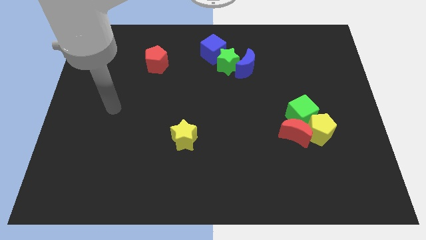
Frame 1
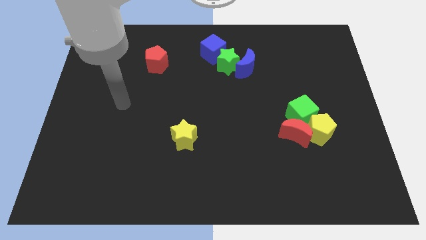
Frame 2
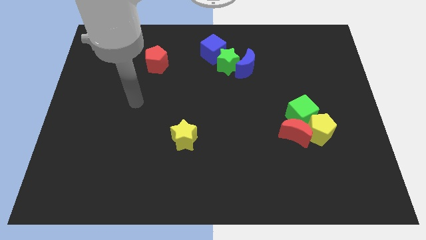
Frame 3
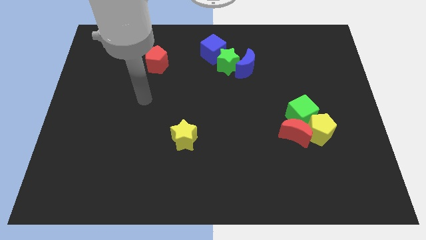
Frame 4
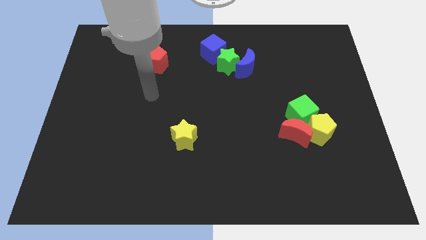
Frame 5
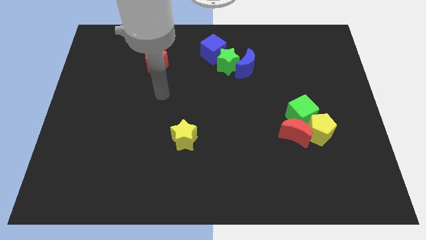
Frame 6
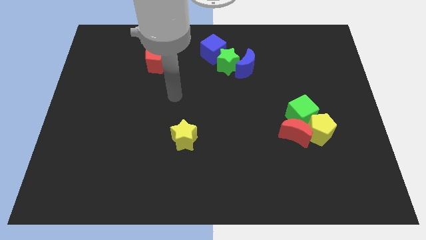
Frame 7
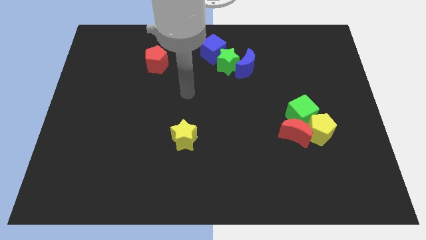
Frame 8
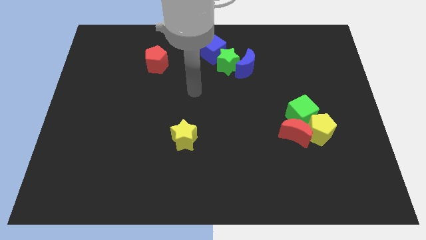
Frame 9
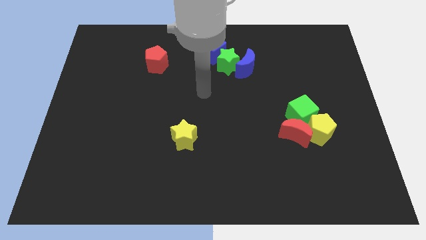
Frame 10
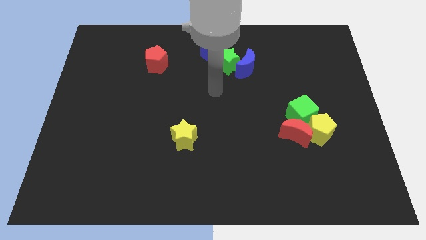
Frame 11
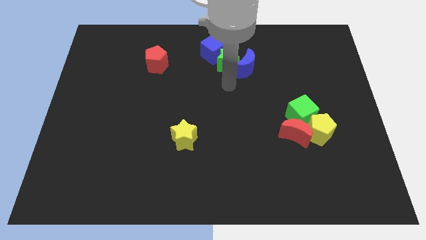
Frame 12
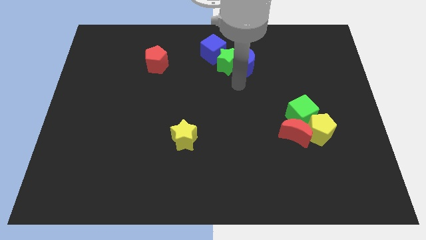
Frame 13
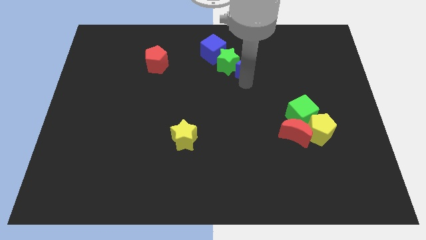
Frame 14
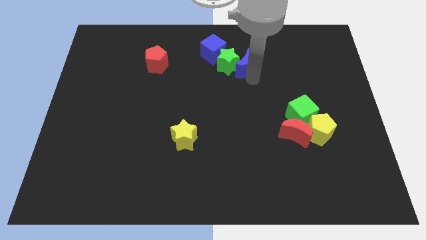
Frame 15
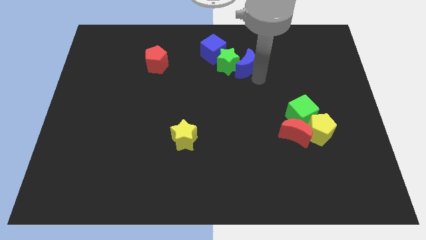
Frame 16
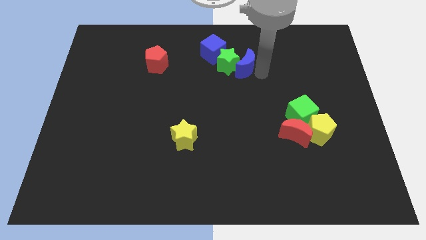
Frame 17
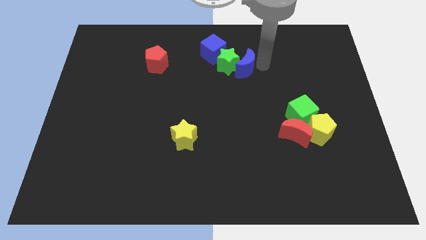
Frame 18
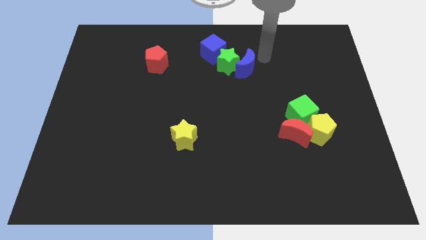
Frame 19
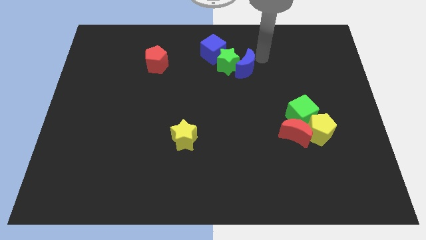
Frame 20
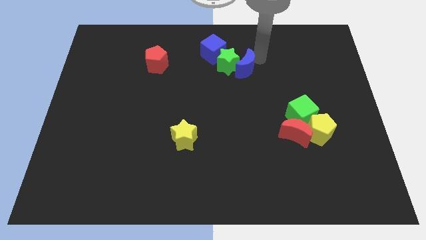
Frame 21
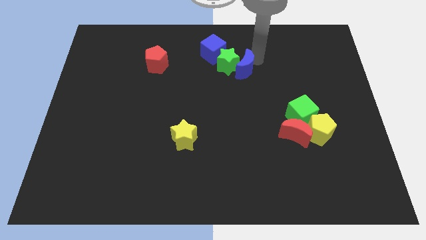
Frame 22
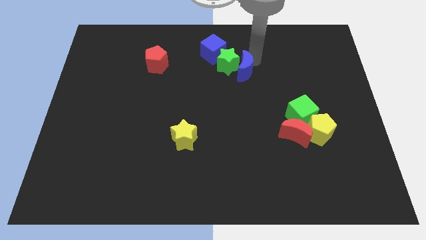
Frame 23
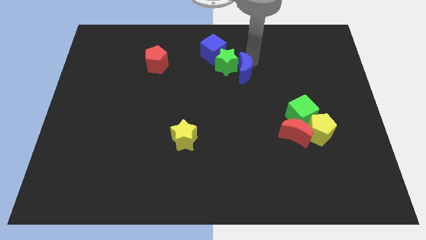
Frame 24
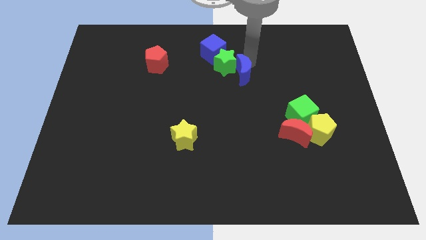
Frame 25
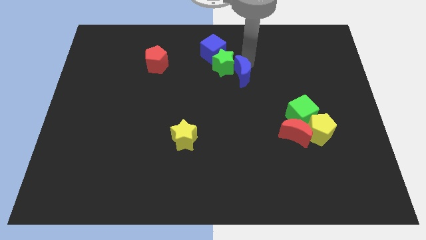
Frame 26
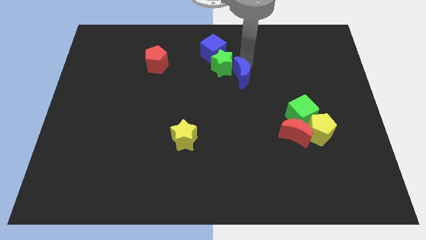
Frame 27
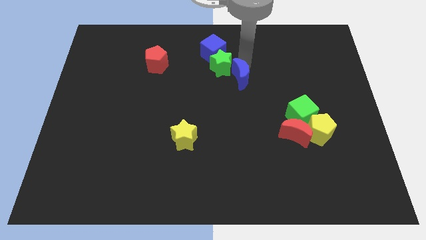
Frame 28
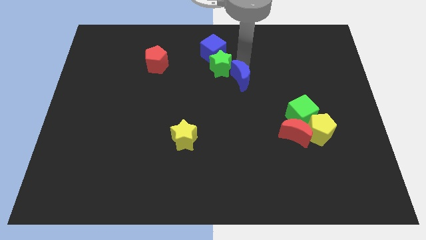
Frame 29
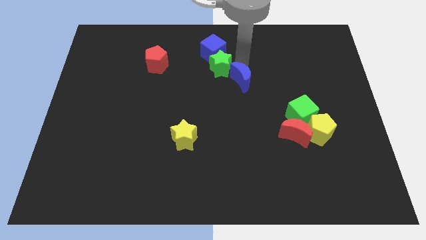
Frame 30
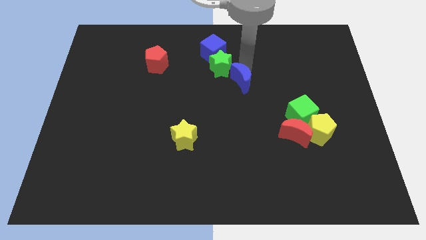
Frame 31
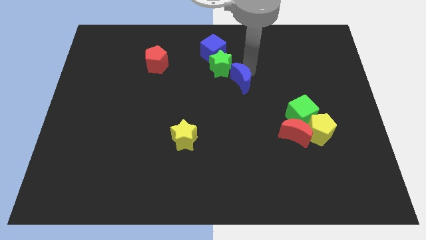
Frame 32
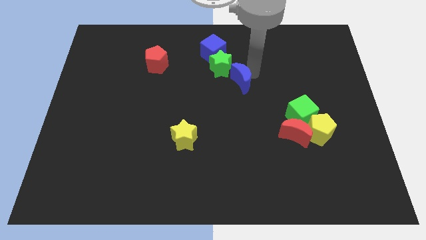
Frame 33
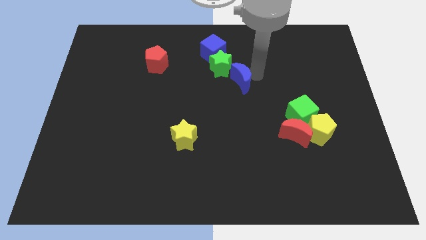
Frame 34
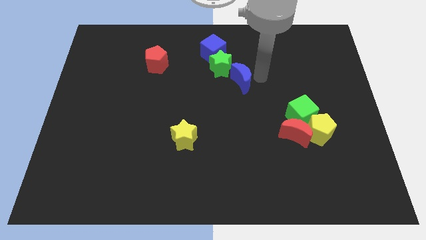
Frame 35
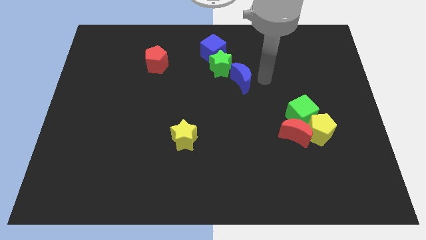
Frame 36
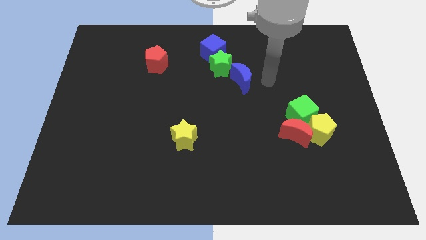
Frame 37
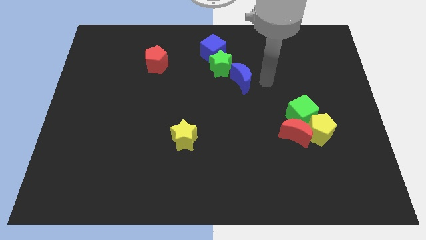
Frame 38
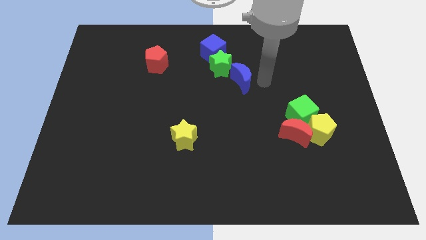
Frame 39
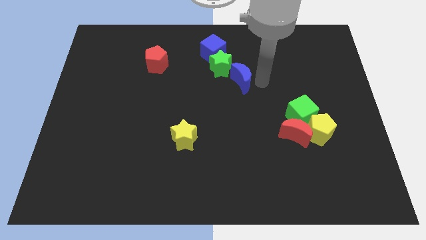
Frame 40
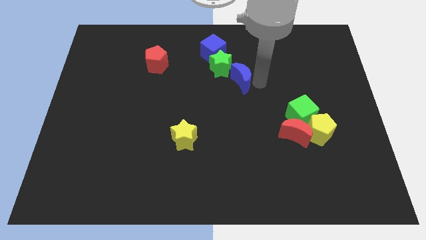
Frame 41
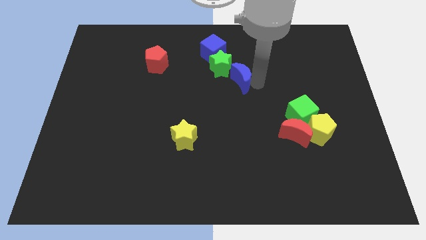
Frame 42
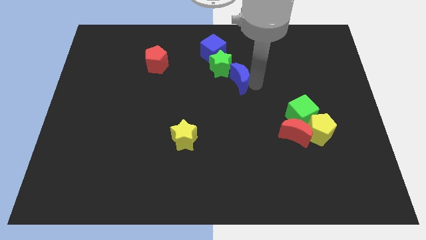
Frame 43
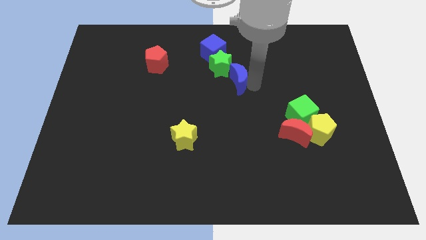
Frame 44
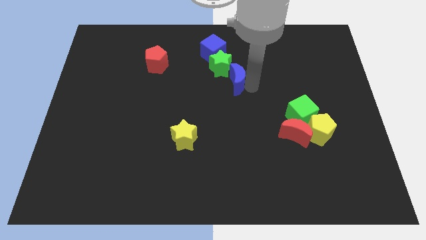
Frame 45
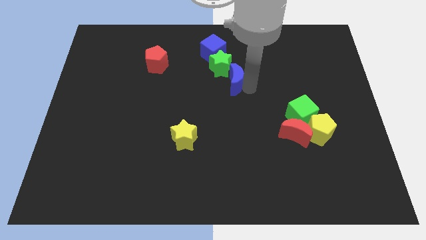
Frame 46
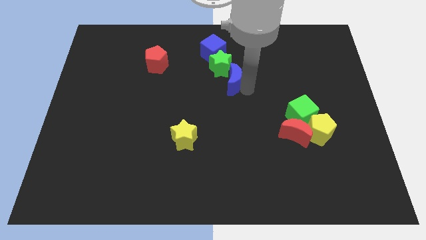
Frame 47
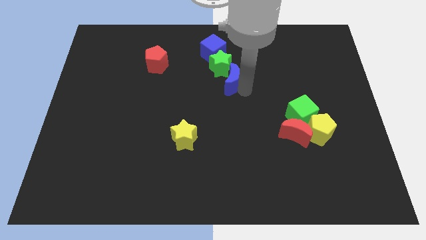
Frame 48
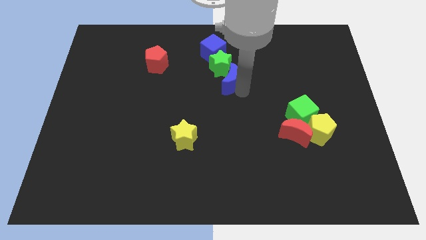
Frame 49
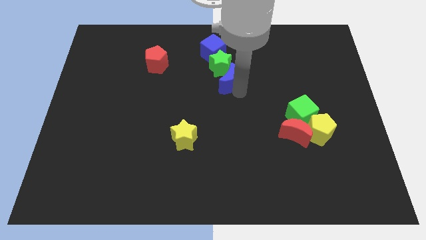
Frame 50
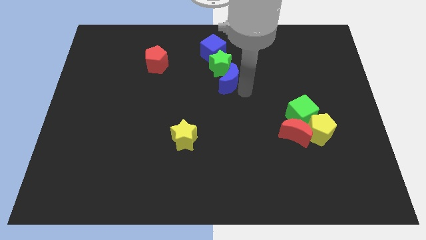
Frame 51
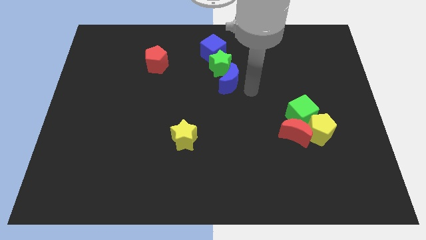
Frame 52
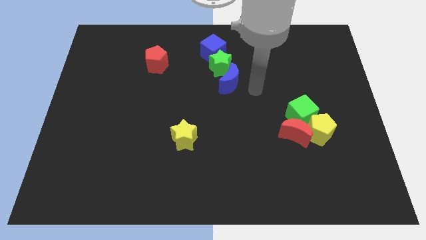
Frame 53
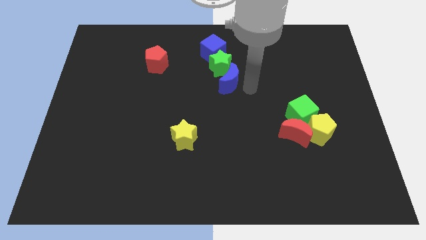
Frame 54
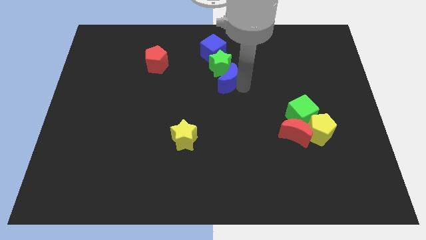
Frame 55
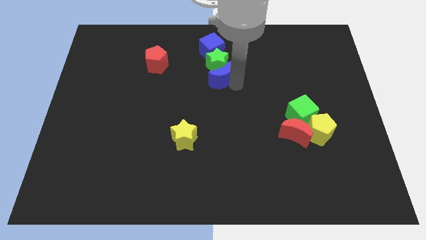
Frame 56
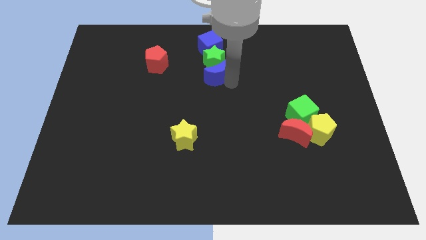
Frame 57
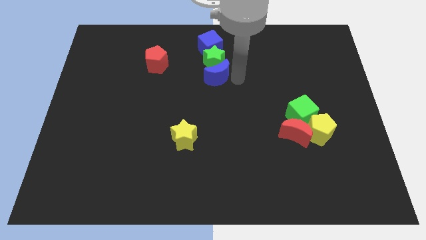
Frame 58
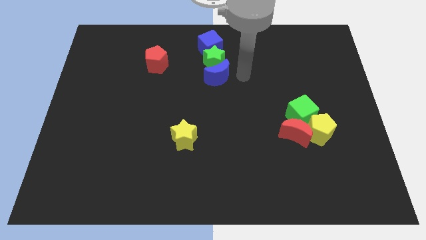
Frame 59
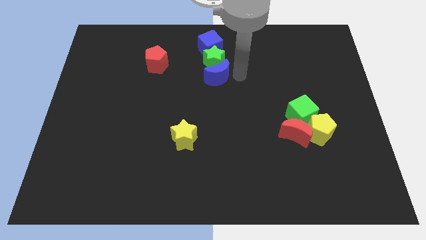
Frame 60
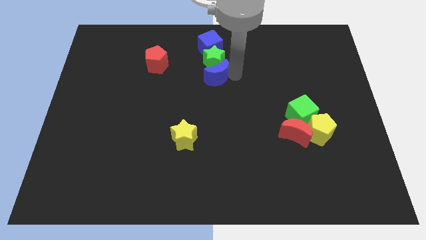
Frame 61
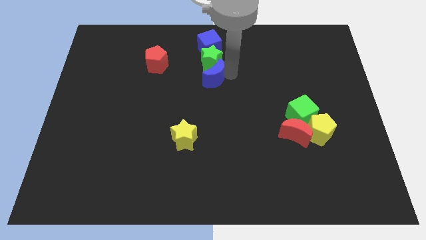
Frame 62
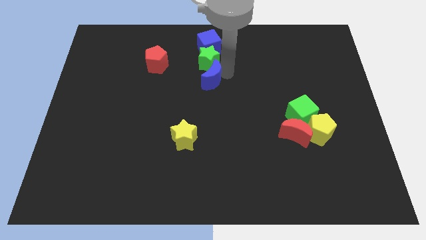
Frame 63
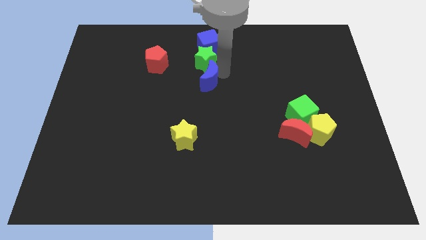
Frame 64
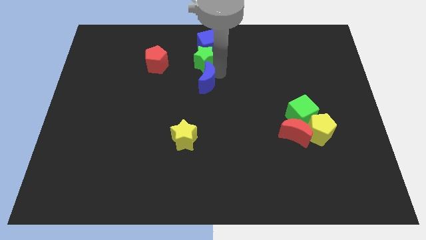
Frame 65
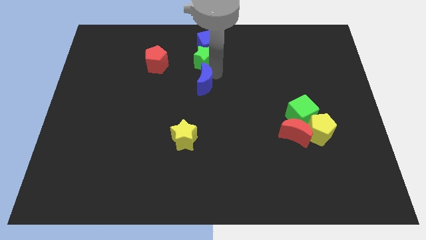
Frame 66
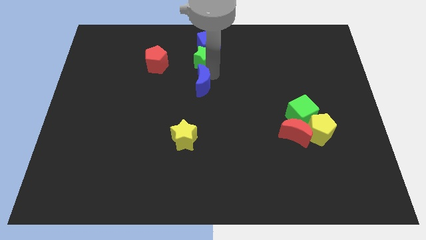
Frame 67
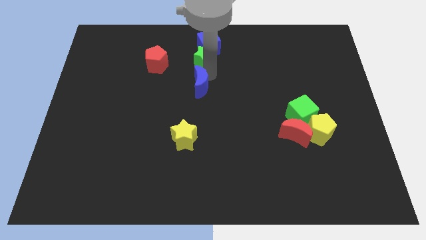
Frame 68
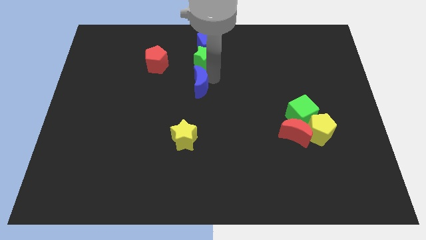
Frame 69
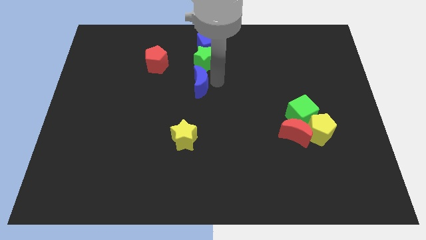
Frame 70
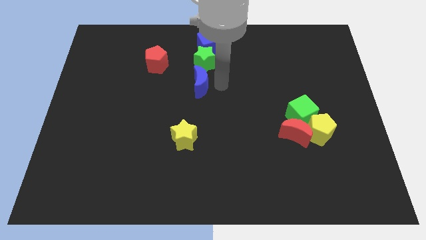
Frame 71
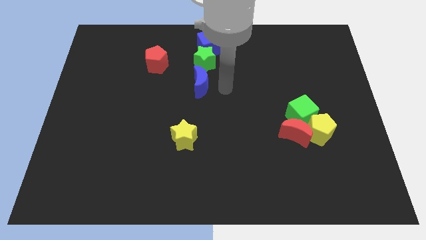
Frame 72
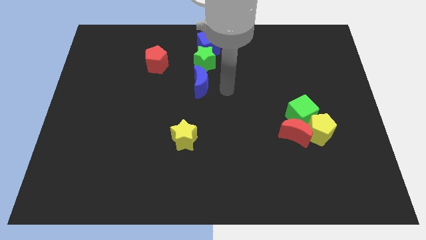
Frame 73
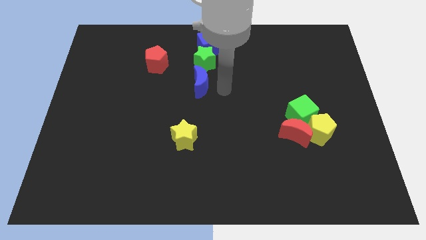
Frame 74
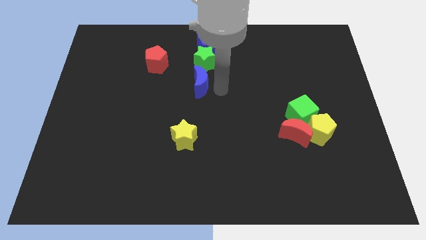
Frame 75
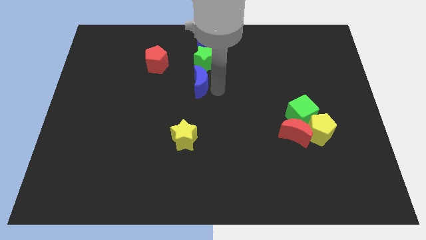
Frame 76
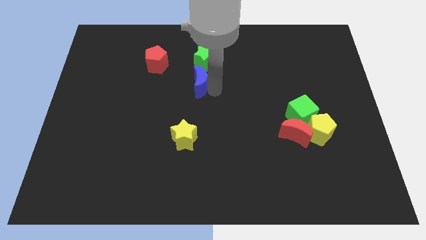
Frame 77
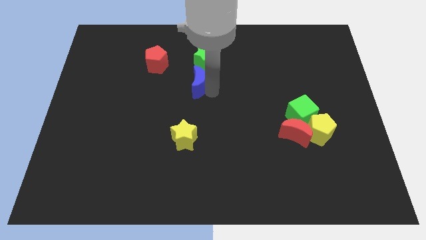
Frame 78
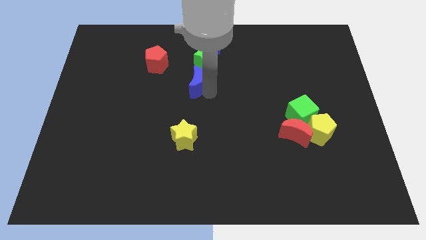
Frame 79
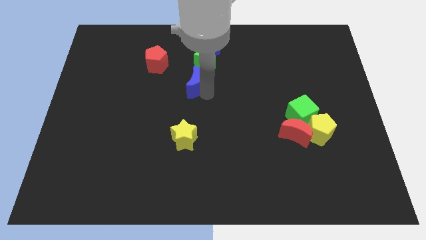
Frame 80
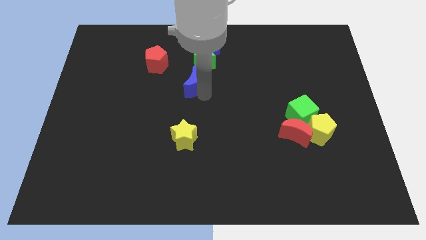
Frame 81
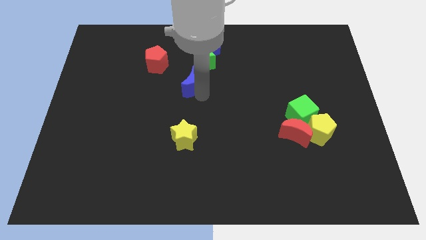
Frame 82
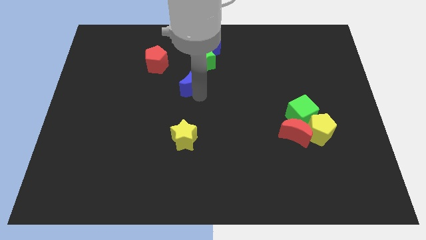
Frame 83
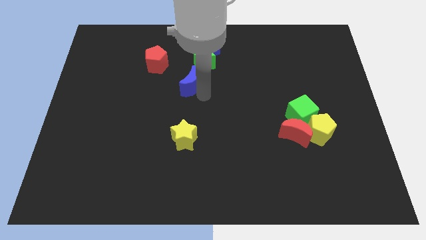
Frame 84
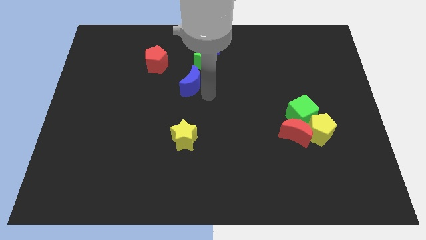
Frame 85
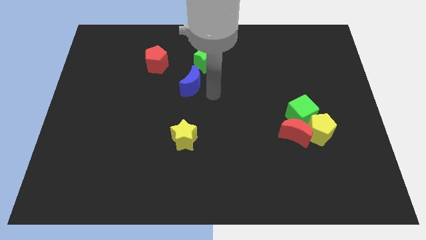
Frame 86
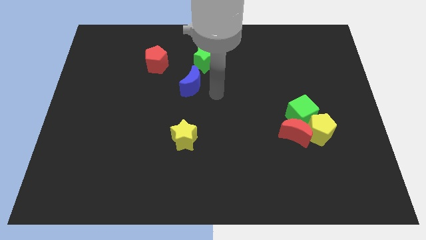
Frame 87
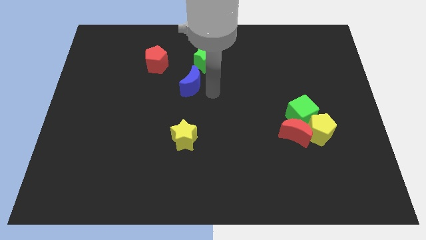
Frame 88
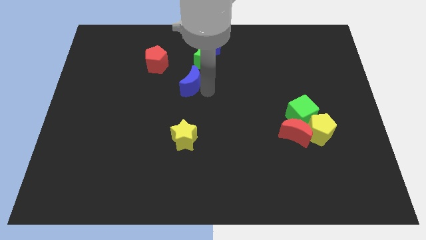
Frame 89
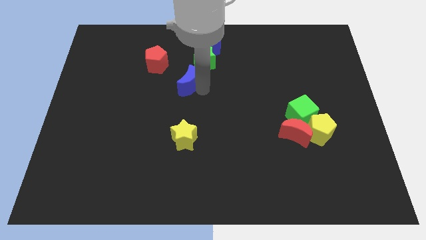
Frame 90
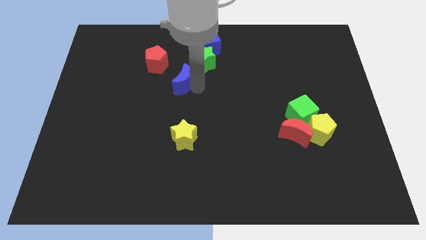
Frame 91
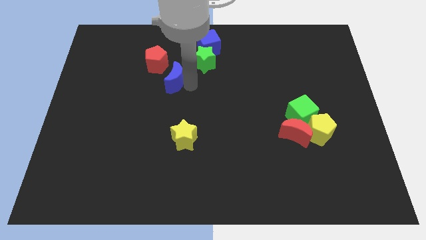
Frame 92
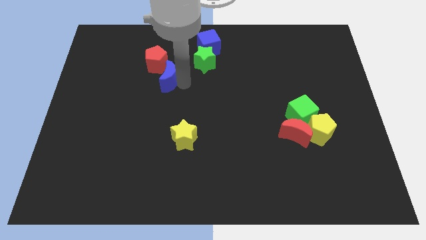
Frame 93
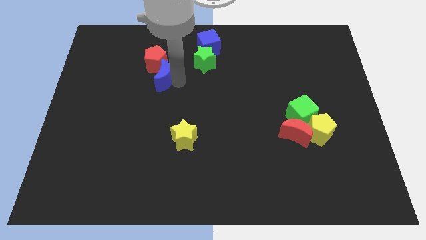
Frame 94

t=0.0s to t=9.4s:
move the blue moon left
